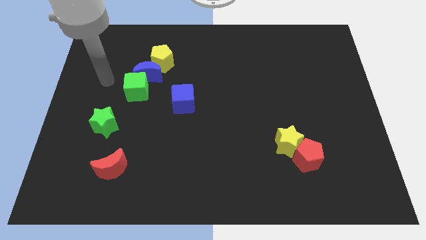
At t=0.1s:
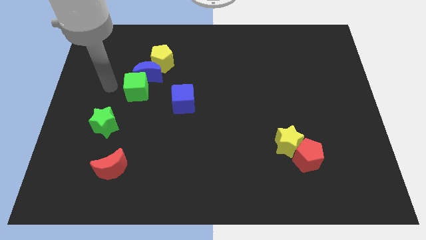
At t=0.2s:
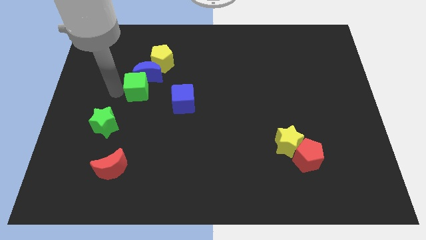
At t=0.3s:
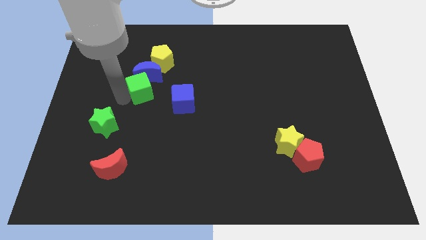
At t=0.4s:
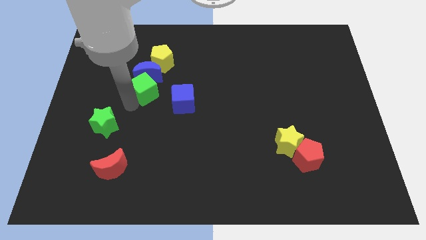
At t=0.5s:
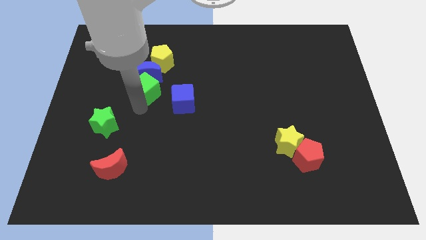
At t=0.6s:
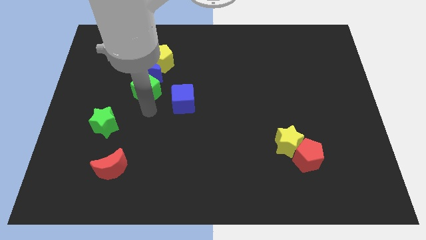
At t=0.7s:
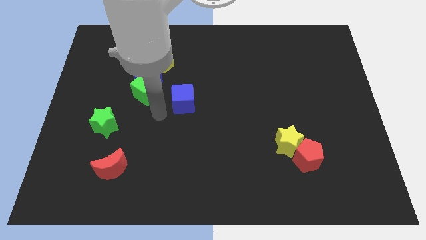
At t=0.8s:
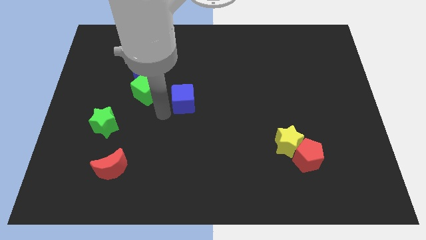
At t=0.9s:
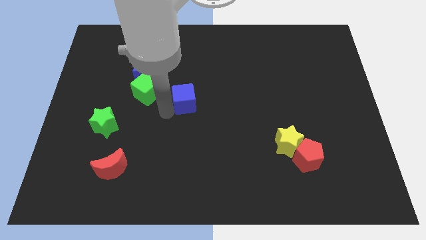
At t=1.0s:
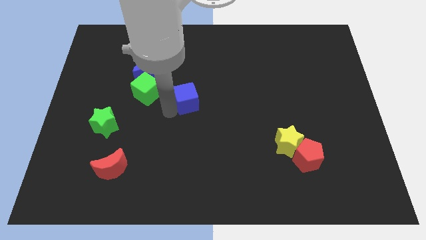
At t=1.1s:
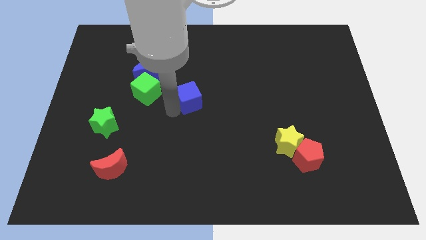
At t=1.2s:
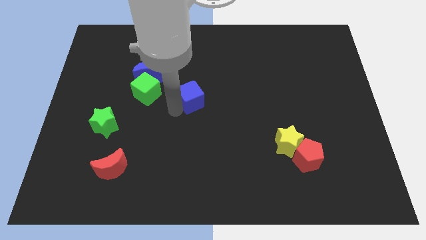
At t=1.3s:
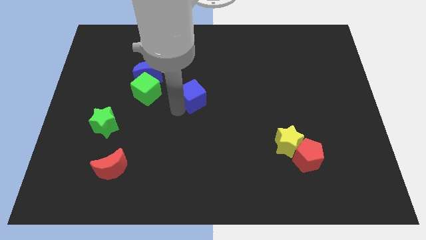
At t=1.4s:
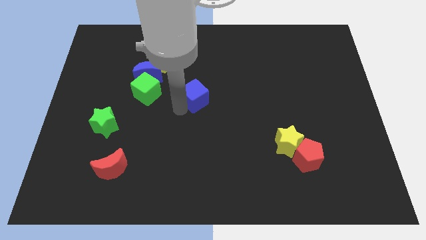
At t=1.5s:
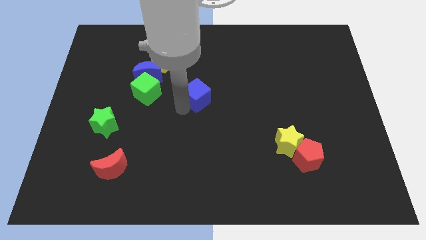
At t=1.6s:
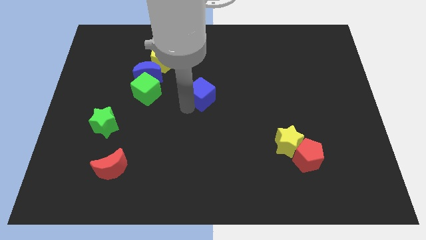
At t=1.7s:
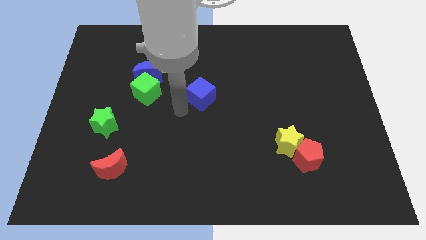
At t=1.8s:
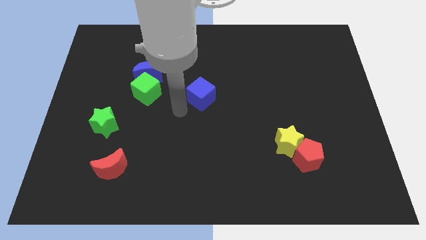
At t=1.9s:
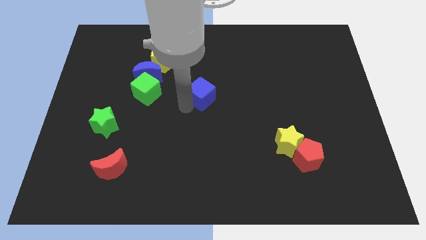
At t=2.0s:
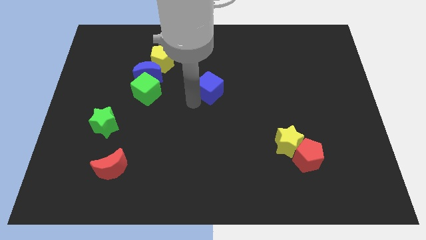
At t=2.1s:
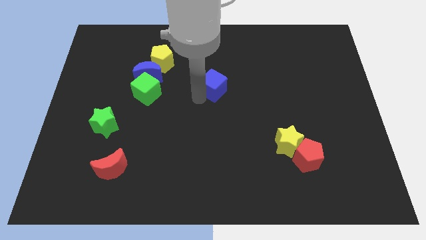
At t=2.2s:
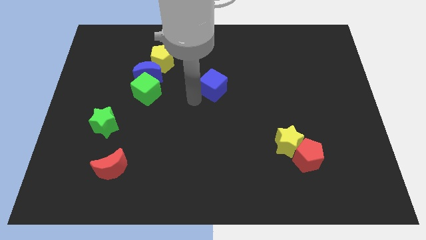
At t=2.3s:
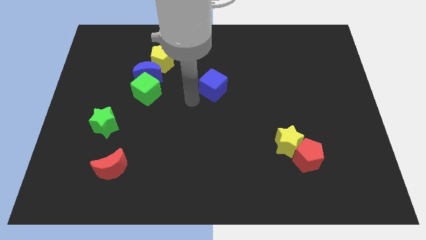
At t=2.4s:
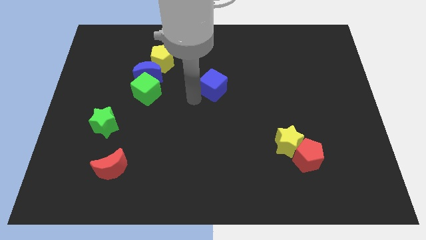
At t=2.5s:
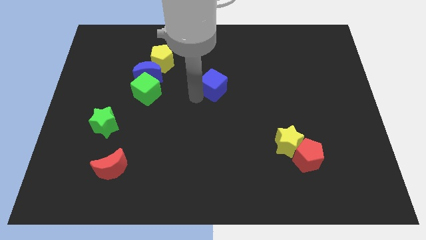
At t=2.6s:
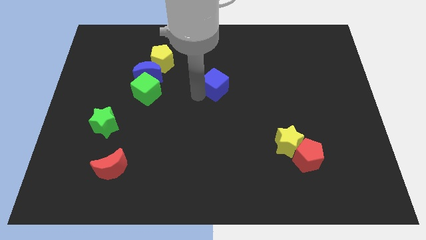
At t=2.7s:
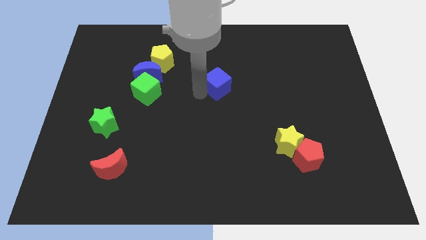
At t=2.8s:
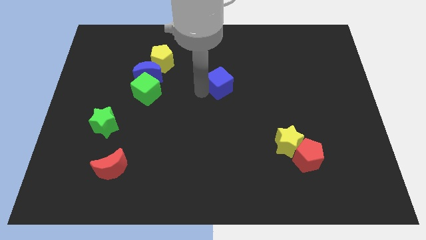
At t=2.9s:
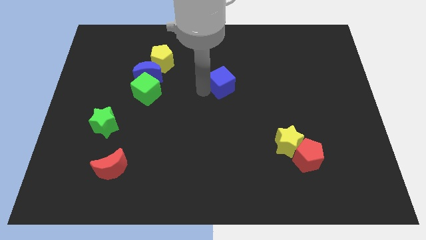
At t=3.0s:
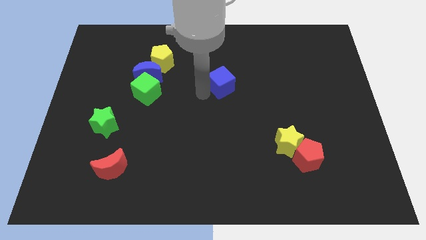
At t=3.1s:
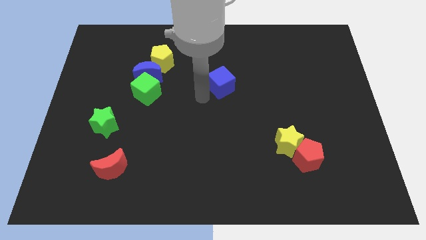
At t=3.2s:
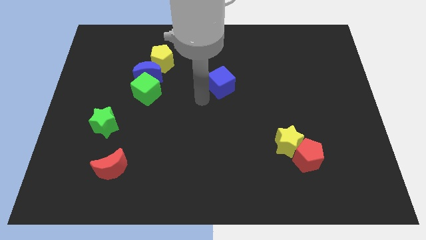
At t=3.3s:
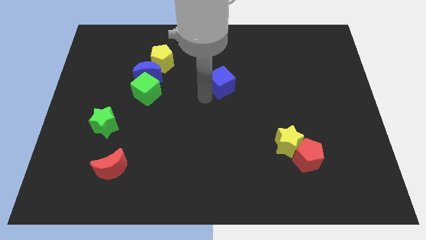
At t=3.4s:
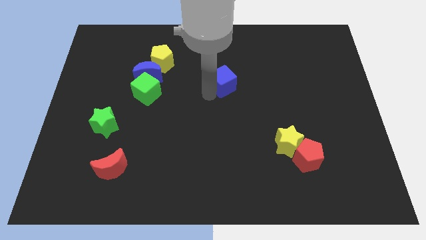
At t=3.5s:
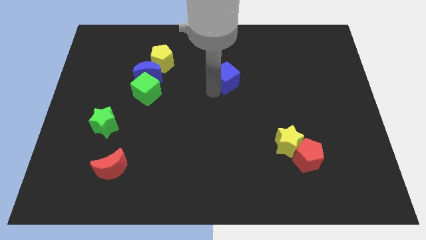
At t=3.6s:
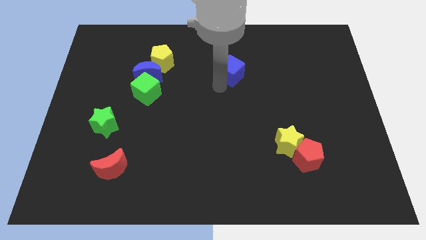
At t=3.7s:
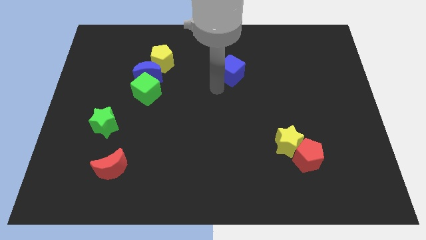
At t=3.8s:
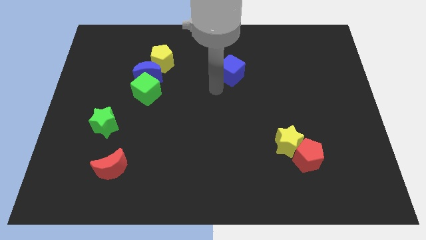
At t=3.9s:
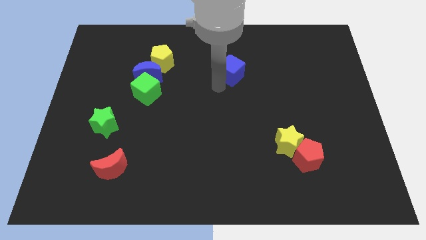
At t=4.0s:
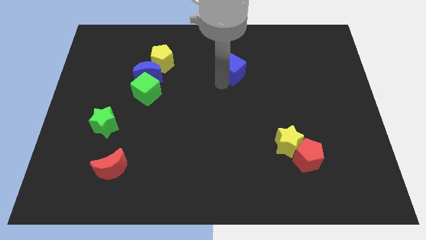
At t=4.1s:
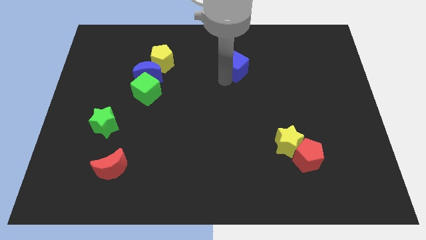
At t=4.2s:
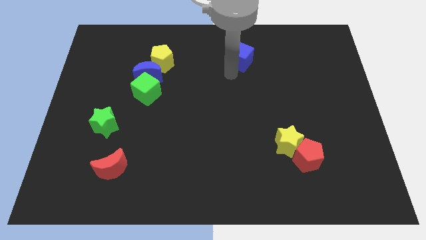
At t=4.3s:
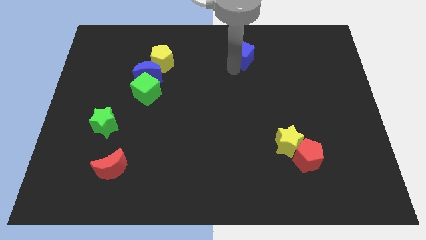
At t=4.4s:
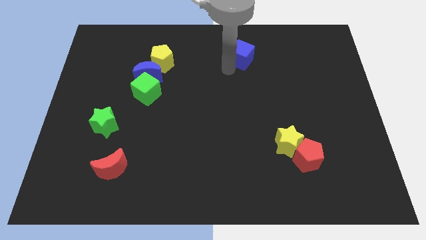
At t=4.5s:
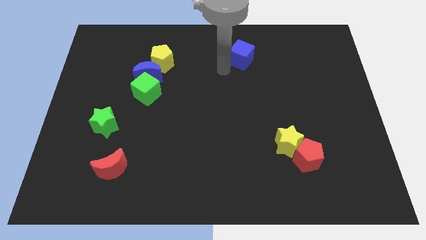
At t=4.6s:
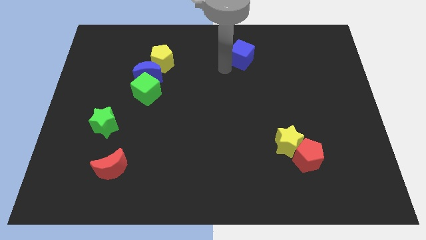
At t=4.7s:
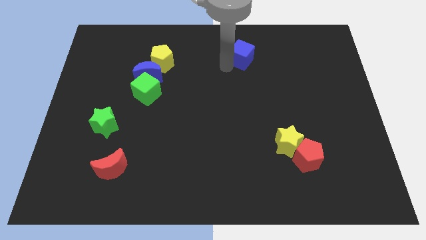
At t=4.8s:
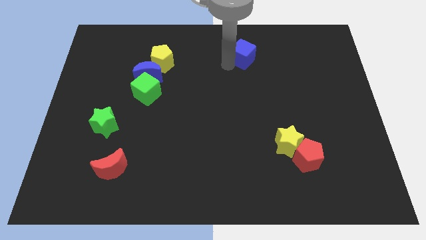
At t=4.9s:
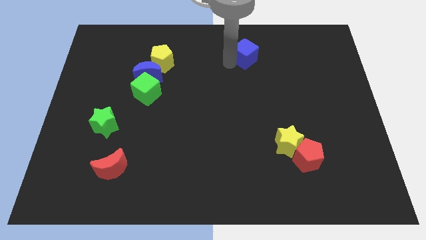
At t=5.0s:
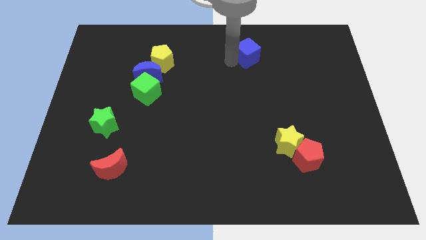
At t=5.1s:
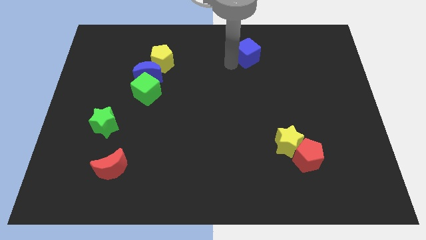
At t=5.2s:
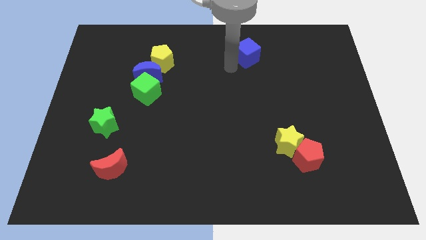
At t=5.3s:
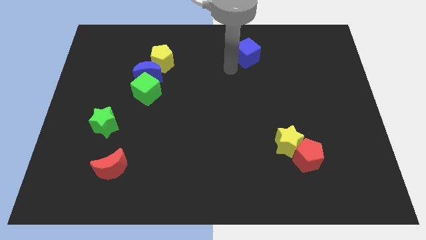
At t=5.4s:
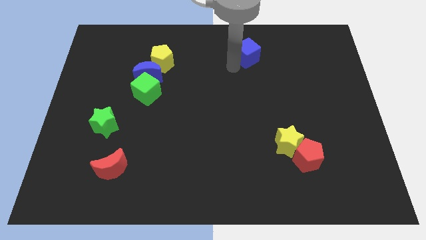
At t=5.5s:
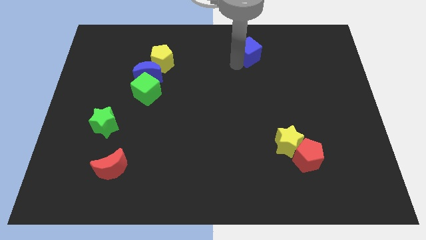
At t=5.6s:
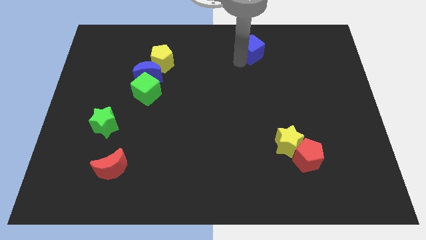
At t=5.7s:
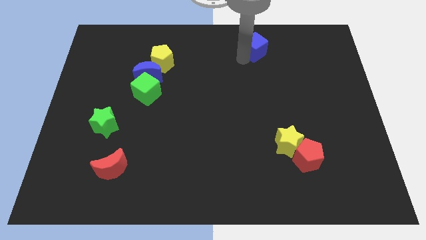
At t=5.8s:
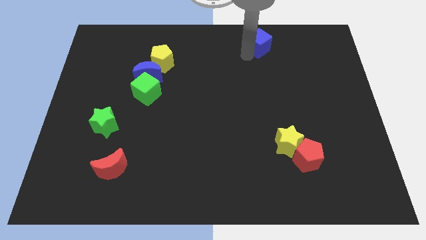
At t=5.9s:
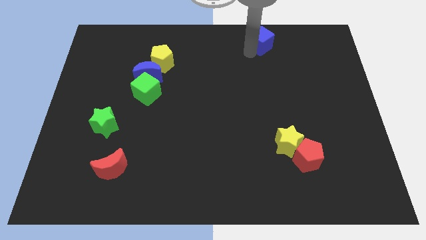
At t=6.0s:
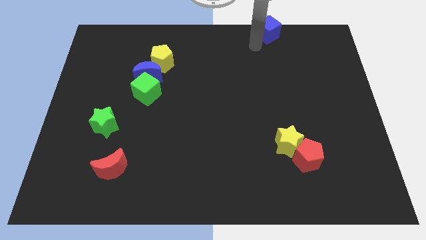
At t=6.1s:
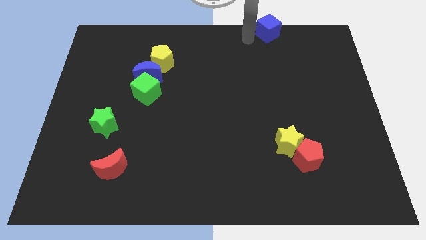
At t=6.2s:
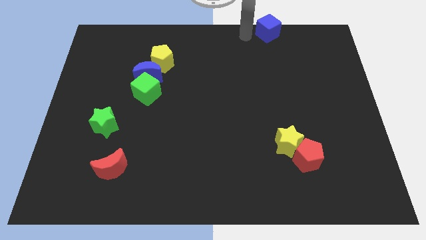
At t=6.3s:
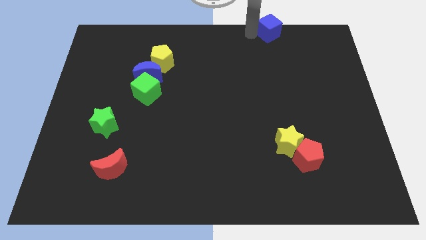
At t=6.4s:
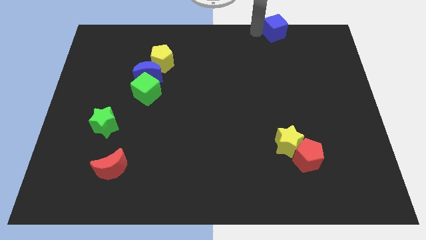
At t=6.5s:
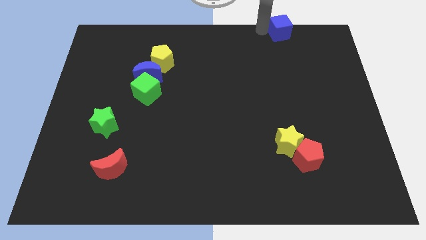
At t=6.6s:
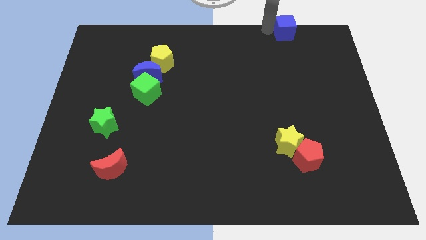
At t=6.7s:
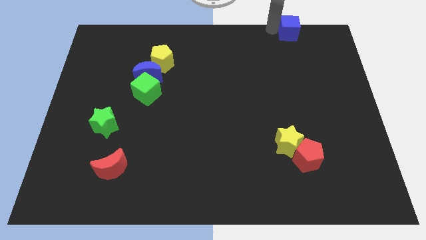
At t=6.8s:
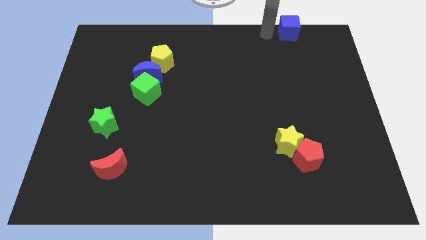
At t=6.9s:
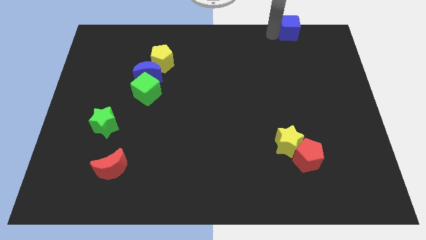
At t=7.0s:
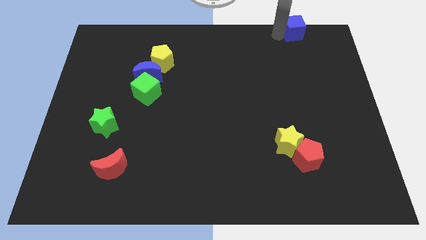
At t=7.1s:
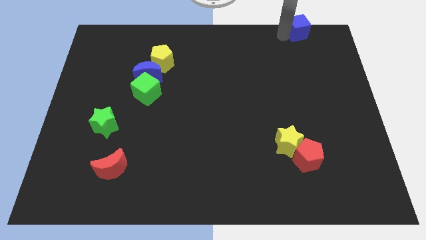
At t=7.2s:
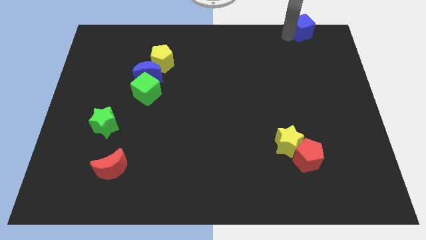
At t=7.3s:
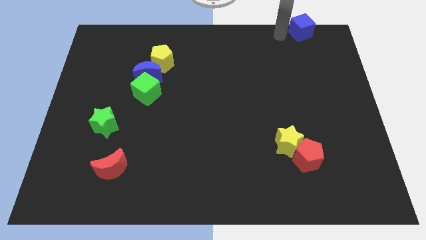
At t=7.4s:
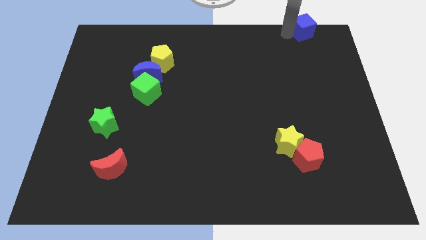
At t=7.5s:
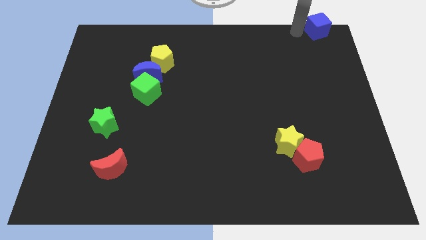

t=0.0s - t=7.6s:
put the blue cube to the upper right corner
